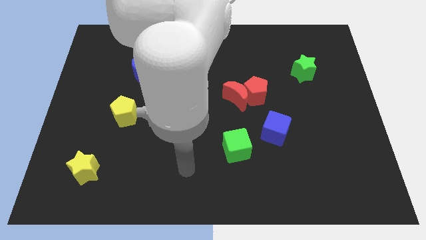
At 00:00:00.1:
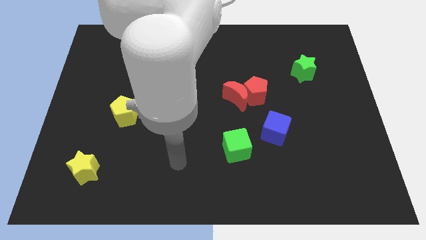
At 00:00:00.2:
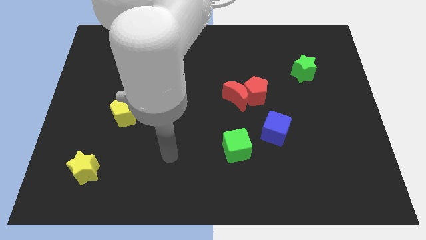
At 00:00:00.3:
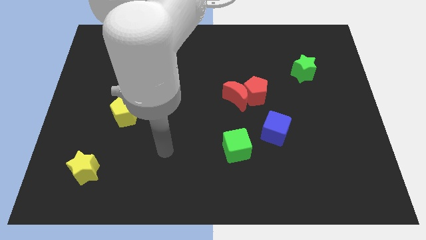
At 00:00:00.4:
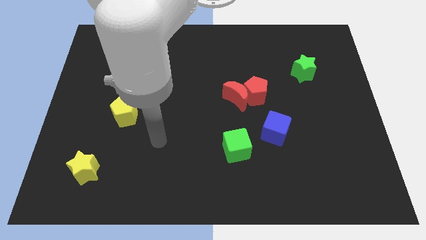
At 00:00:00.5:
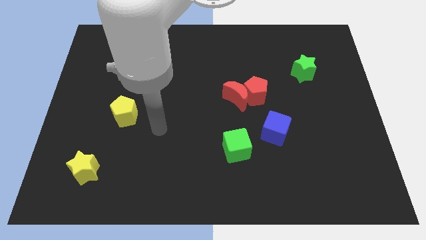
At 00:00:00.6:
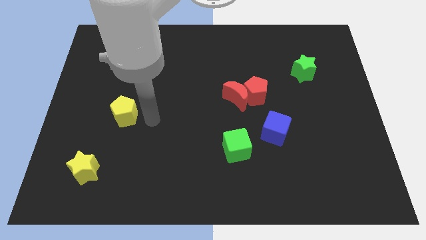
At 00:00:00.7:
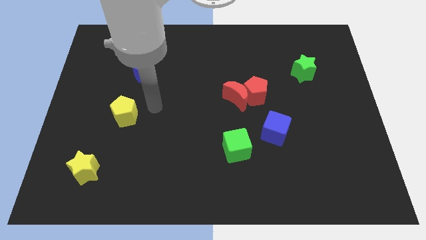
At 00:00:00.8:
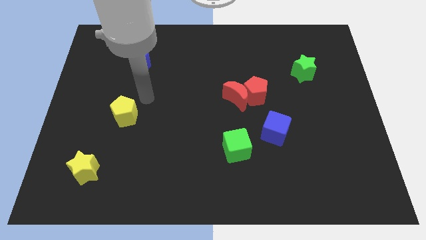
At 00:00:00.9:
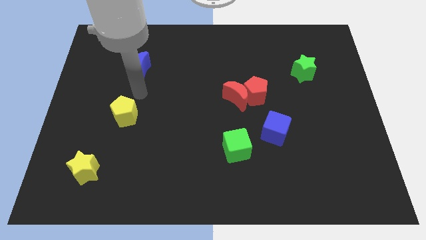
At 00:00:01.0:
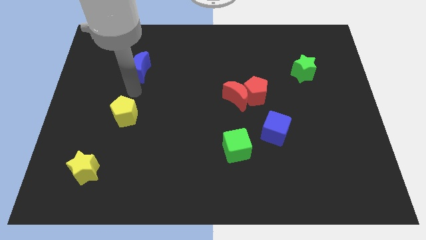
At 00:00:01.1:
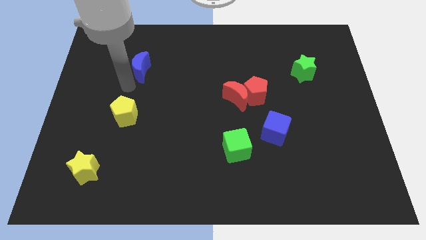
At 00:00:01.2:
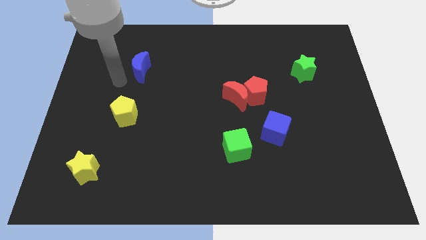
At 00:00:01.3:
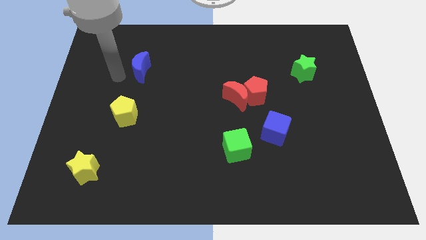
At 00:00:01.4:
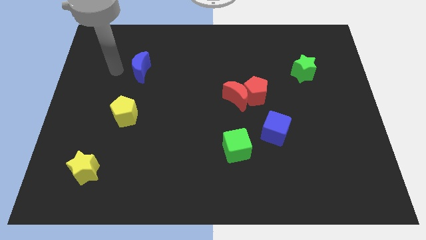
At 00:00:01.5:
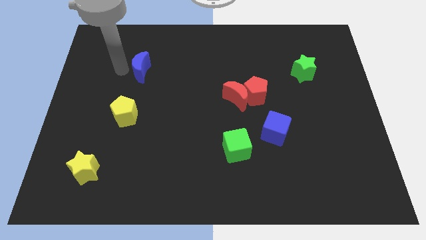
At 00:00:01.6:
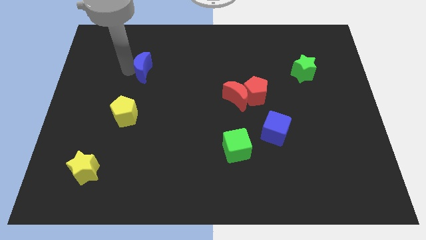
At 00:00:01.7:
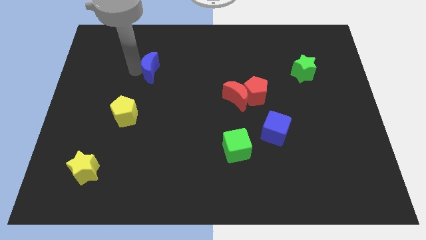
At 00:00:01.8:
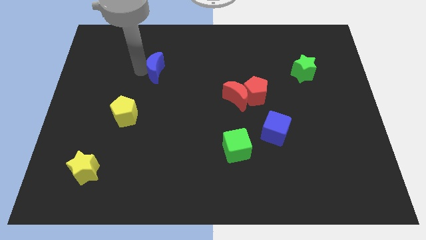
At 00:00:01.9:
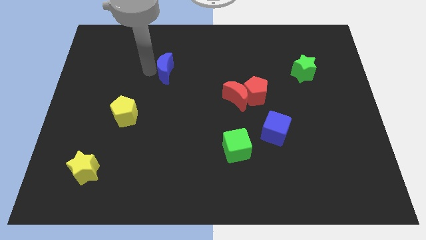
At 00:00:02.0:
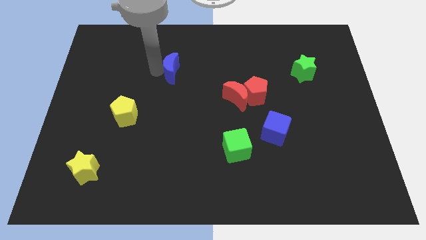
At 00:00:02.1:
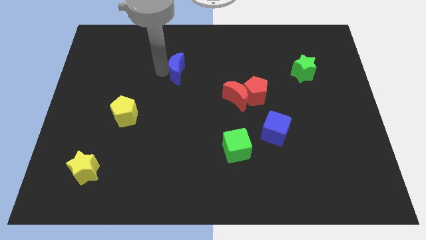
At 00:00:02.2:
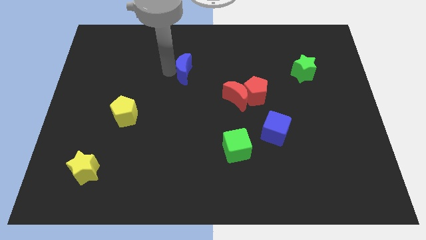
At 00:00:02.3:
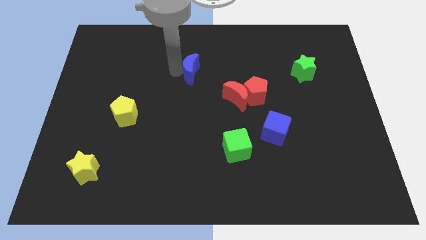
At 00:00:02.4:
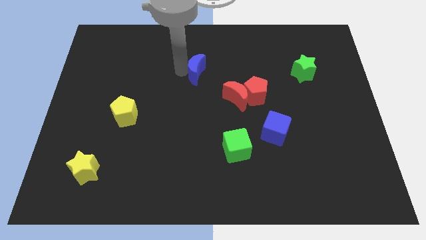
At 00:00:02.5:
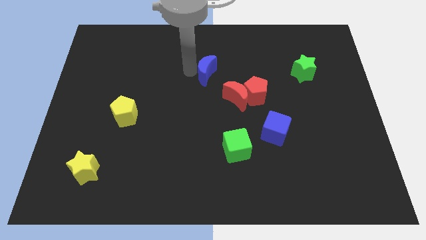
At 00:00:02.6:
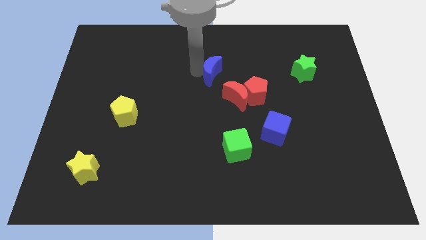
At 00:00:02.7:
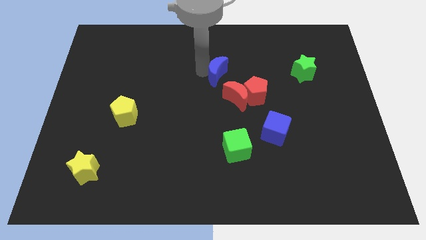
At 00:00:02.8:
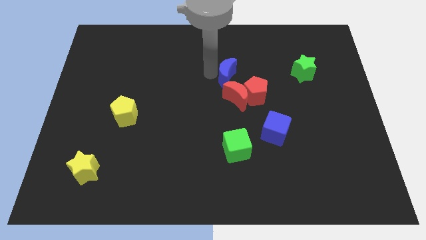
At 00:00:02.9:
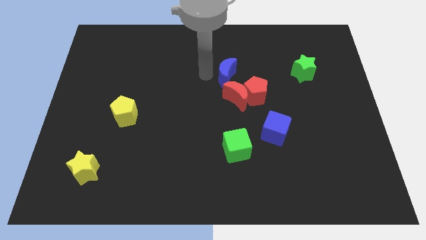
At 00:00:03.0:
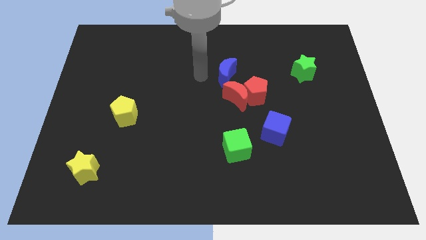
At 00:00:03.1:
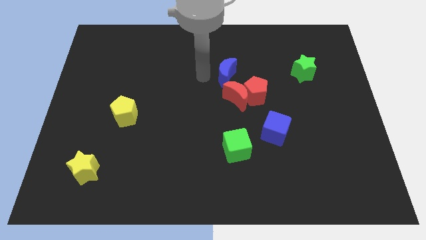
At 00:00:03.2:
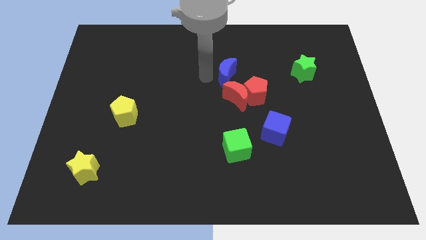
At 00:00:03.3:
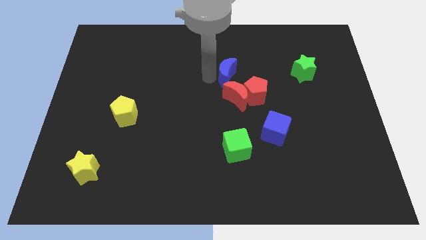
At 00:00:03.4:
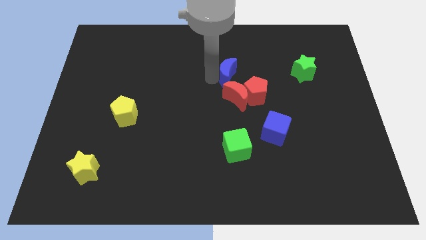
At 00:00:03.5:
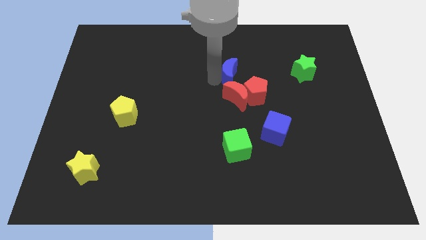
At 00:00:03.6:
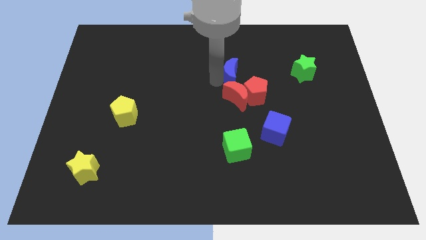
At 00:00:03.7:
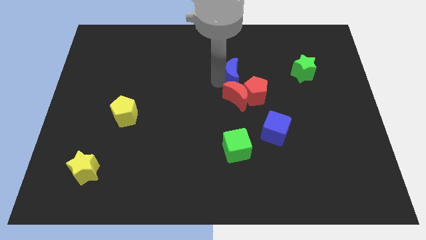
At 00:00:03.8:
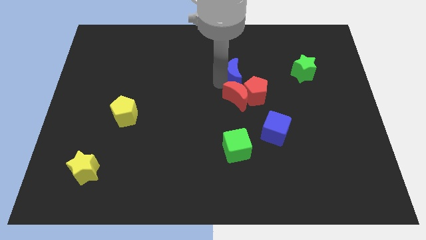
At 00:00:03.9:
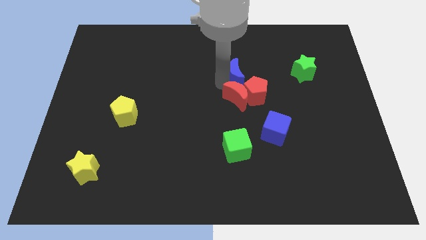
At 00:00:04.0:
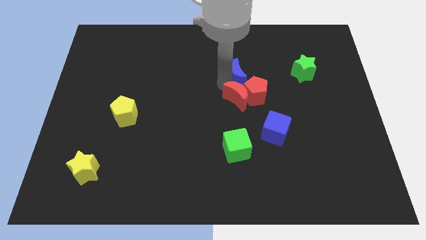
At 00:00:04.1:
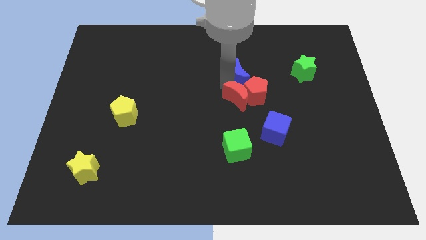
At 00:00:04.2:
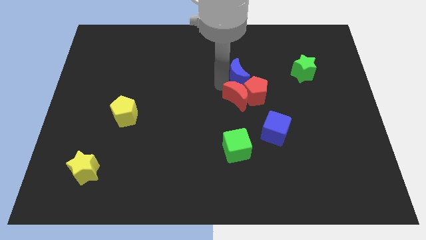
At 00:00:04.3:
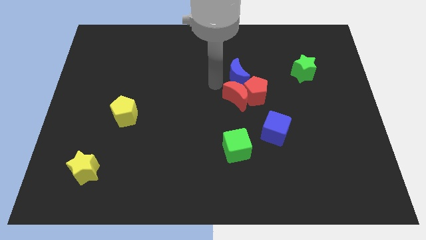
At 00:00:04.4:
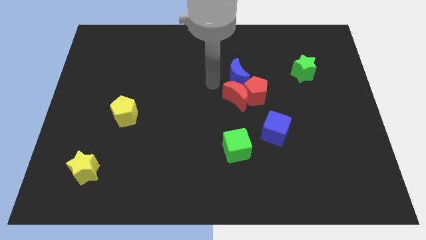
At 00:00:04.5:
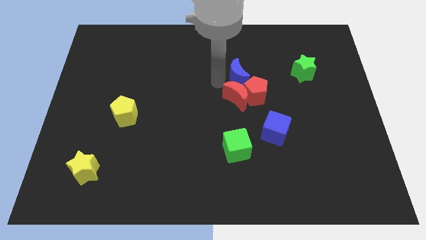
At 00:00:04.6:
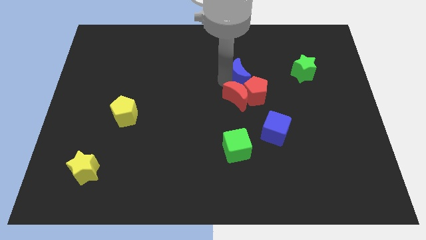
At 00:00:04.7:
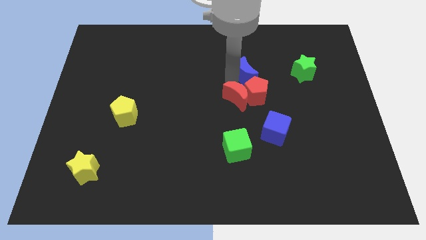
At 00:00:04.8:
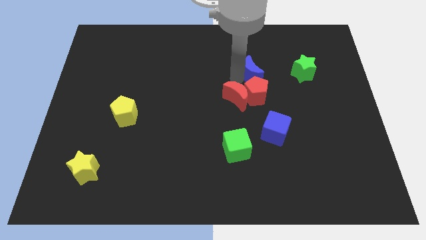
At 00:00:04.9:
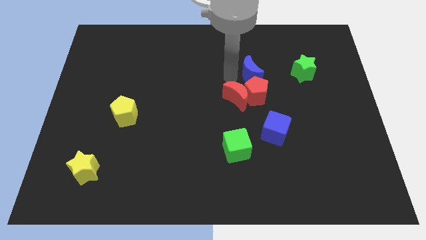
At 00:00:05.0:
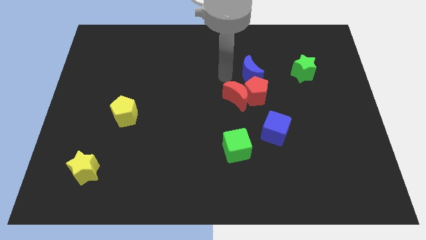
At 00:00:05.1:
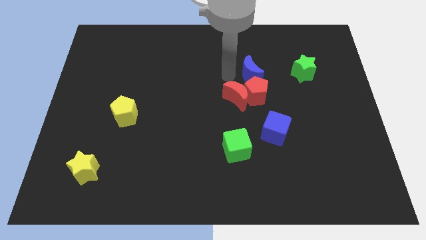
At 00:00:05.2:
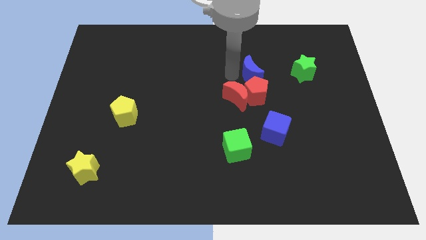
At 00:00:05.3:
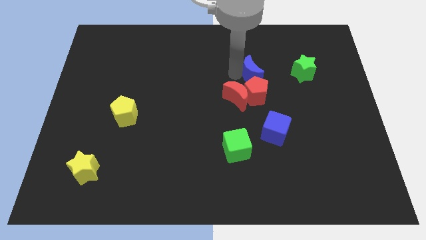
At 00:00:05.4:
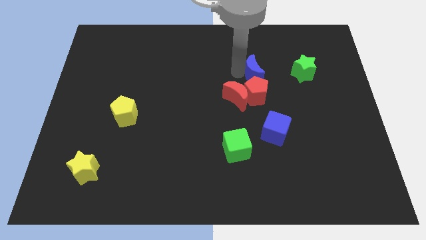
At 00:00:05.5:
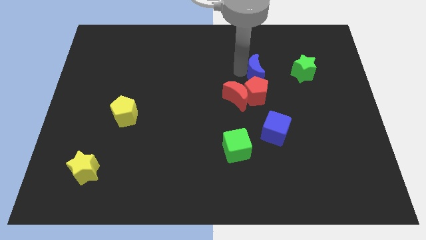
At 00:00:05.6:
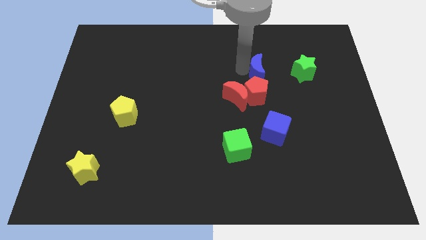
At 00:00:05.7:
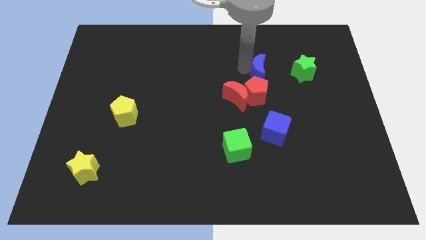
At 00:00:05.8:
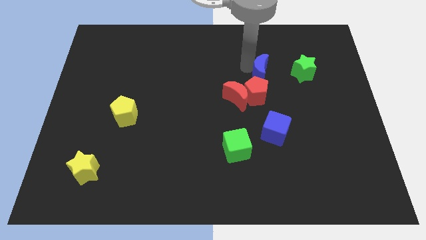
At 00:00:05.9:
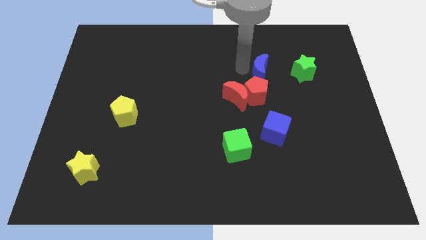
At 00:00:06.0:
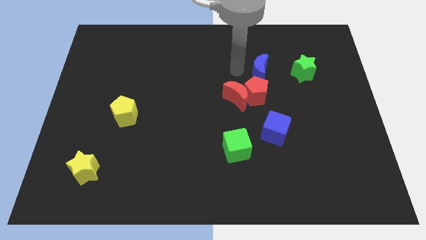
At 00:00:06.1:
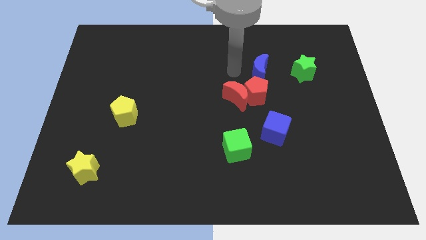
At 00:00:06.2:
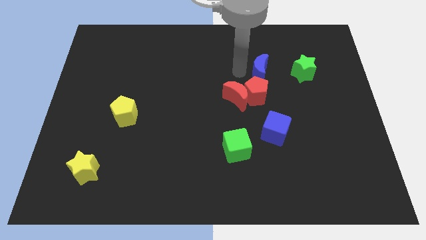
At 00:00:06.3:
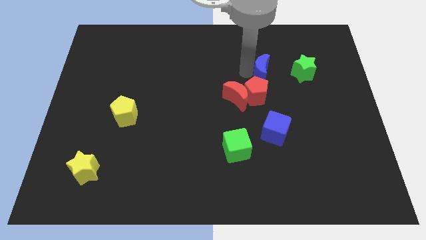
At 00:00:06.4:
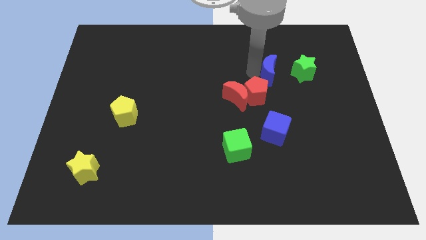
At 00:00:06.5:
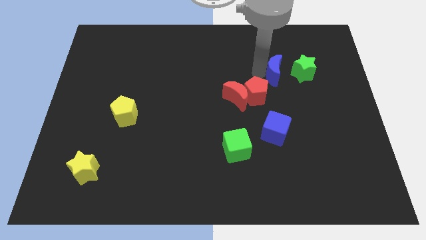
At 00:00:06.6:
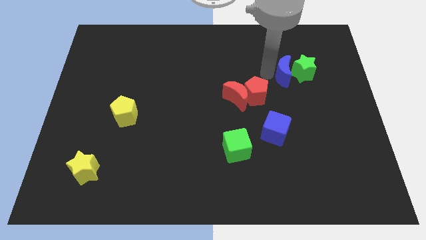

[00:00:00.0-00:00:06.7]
slide the blue moon towards the green star
